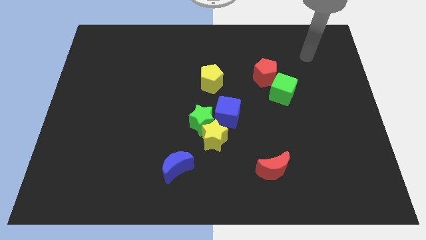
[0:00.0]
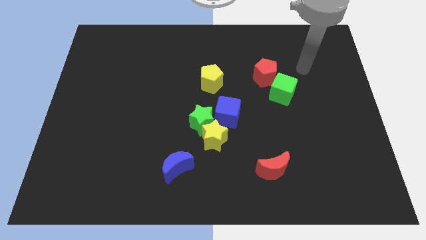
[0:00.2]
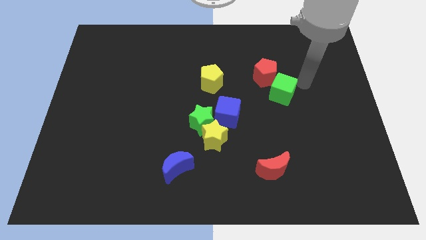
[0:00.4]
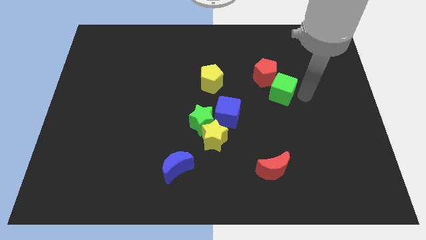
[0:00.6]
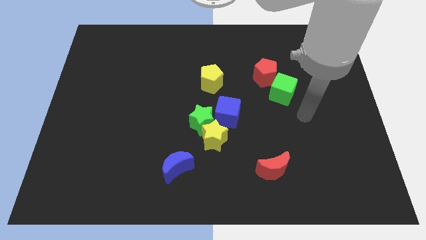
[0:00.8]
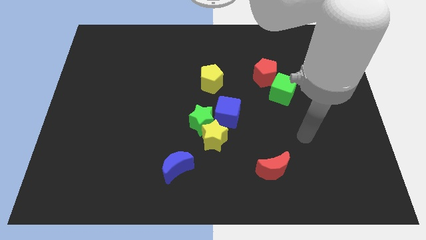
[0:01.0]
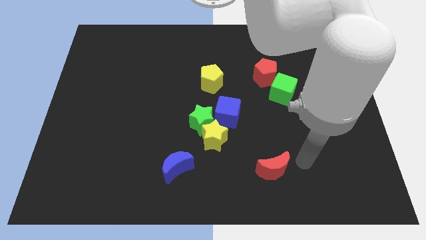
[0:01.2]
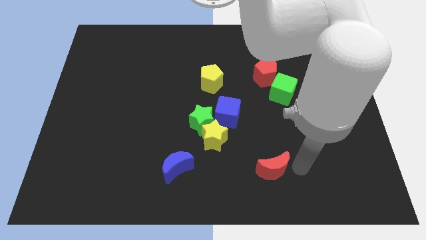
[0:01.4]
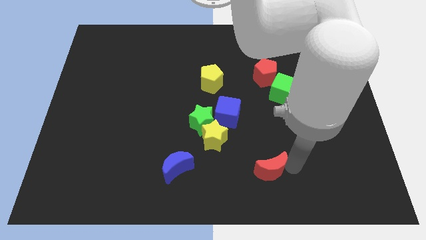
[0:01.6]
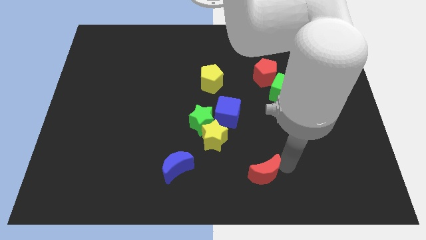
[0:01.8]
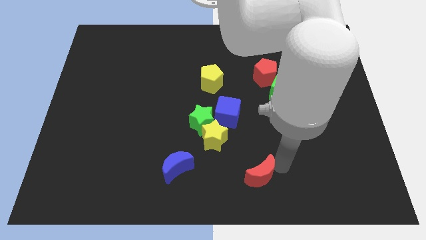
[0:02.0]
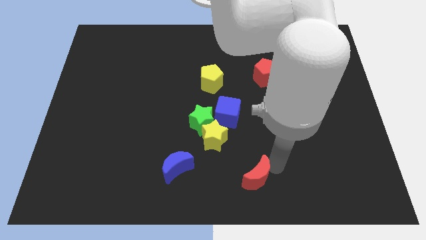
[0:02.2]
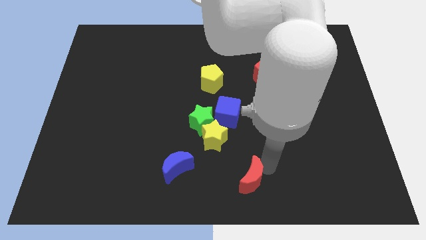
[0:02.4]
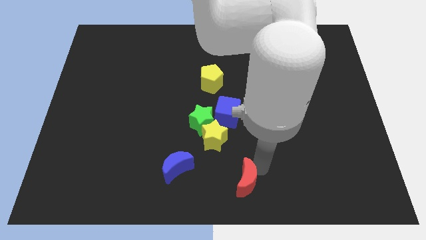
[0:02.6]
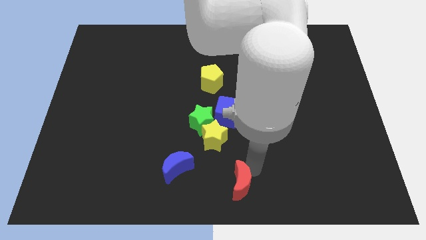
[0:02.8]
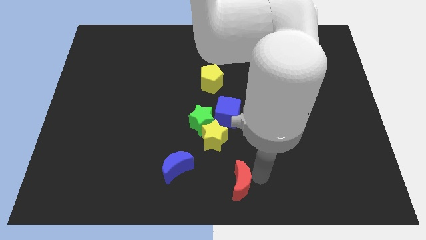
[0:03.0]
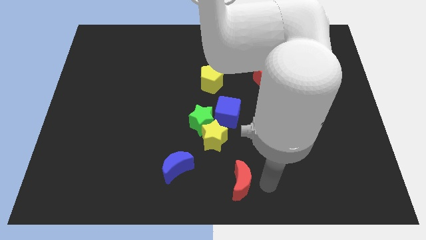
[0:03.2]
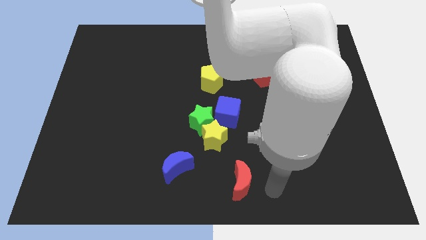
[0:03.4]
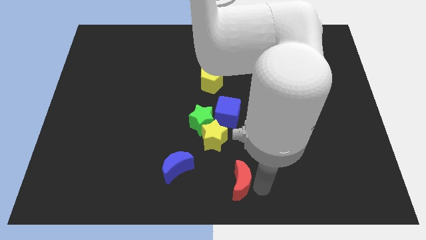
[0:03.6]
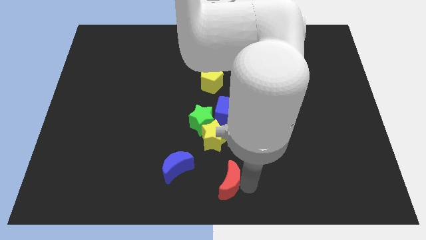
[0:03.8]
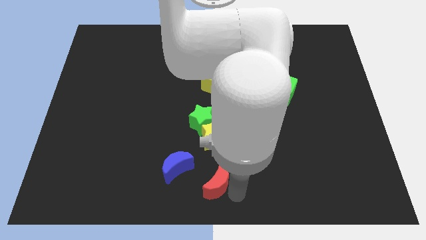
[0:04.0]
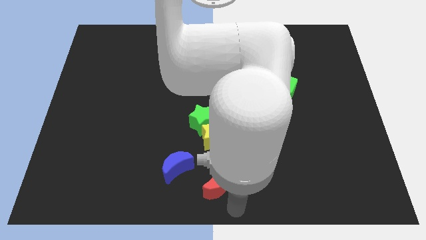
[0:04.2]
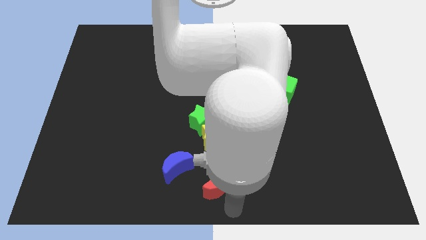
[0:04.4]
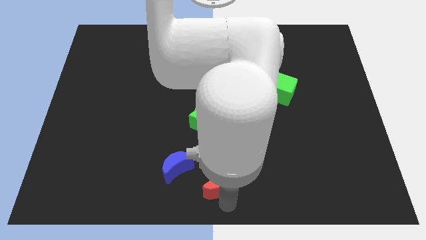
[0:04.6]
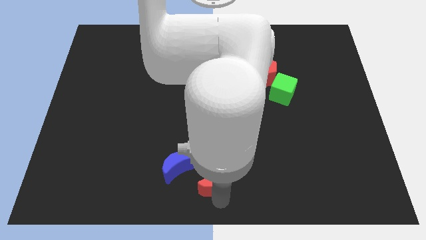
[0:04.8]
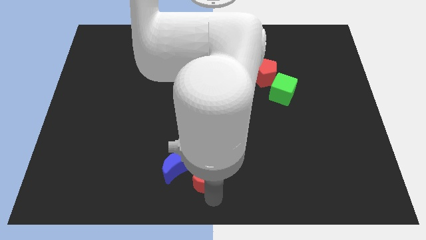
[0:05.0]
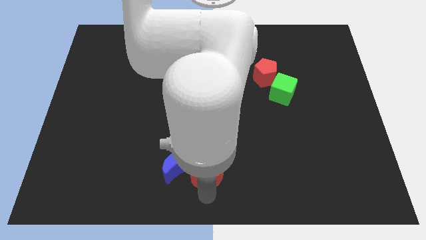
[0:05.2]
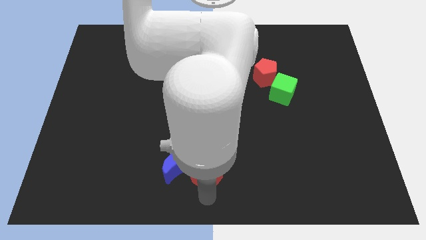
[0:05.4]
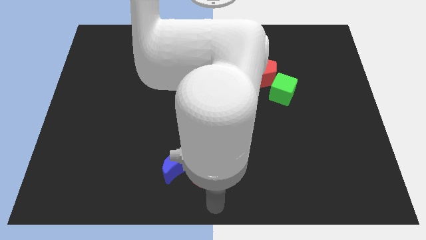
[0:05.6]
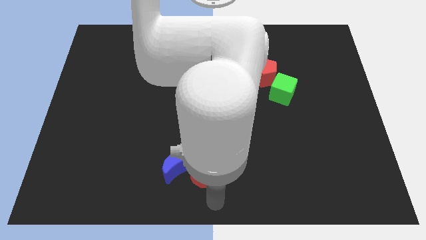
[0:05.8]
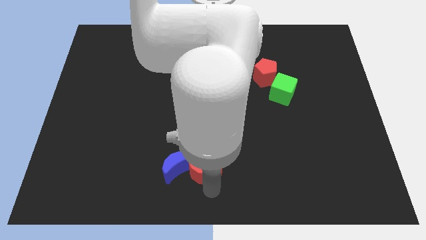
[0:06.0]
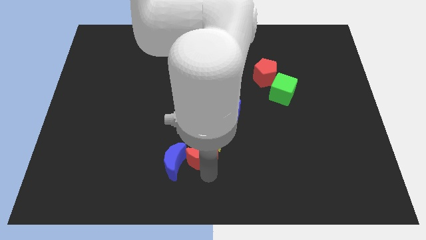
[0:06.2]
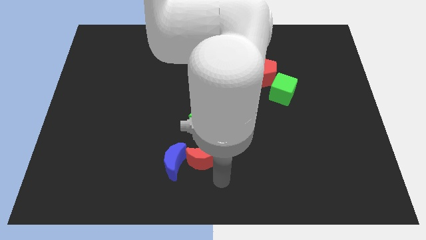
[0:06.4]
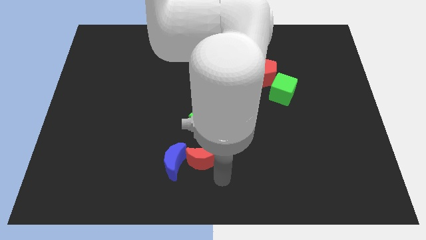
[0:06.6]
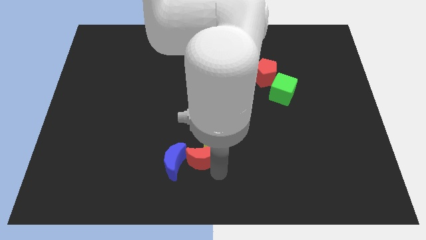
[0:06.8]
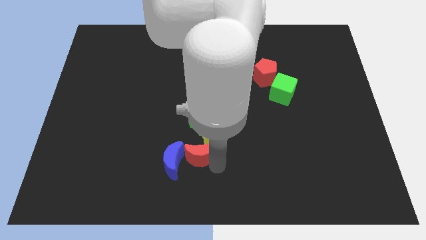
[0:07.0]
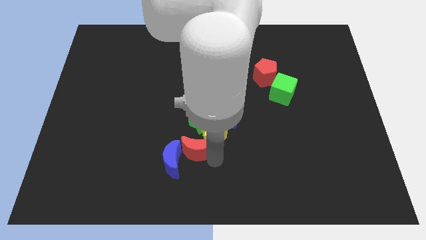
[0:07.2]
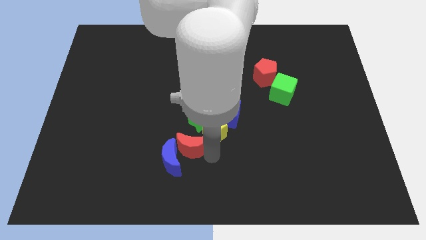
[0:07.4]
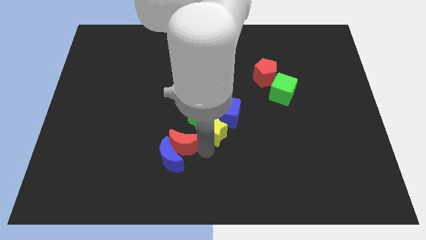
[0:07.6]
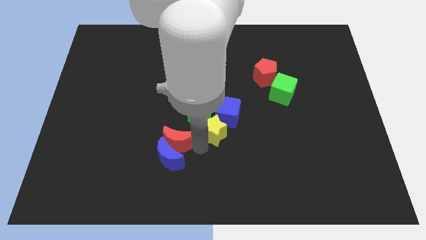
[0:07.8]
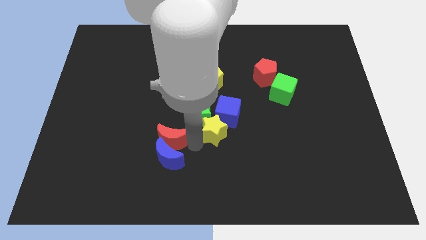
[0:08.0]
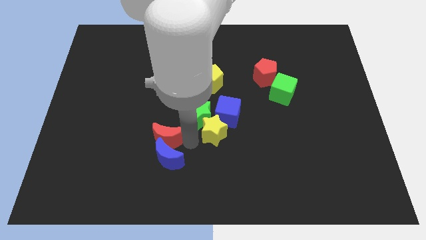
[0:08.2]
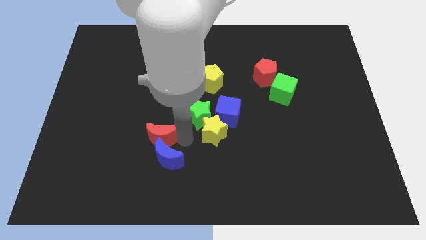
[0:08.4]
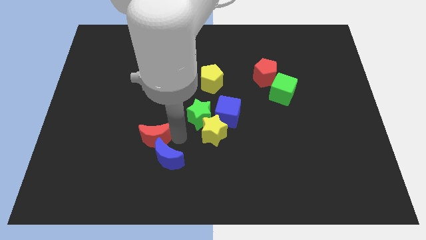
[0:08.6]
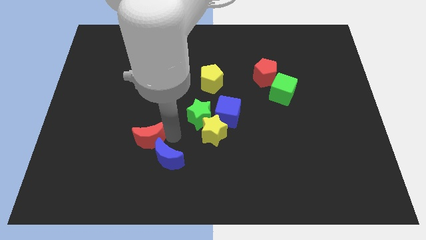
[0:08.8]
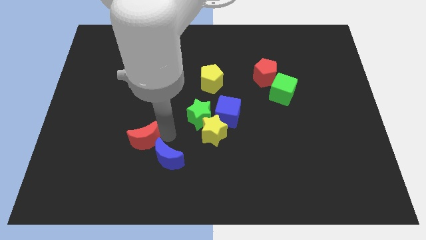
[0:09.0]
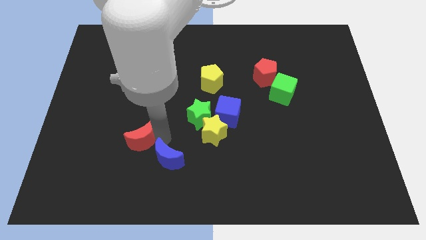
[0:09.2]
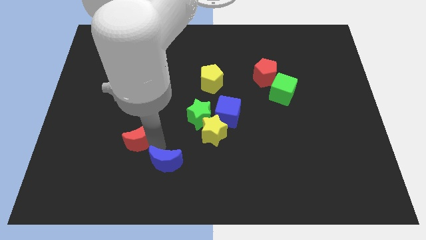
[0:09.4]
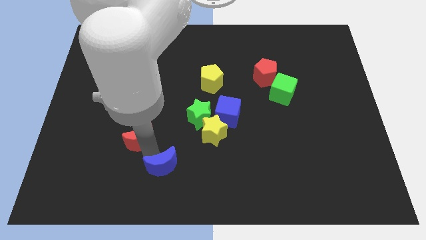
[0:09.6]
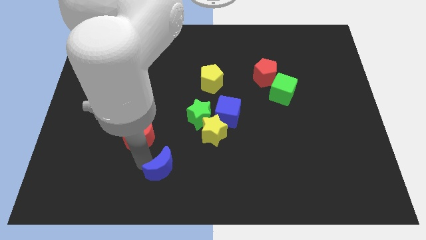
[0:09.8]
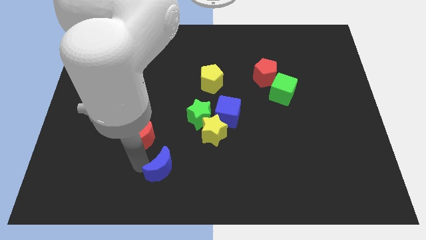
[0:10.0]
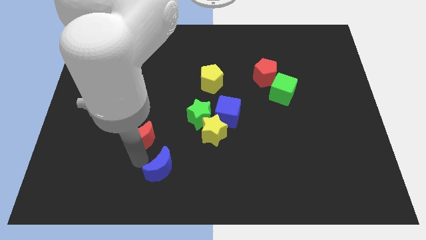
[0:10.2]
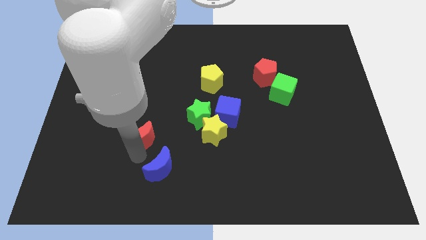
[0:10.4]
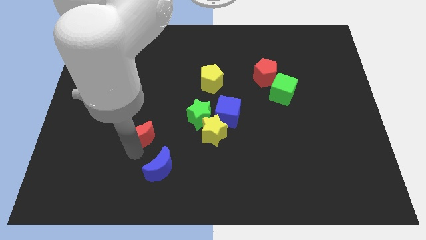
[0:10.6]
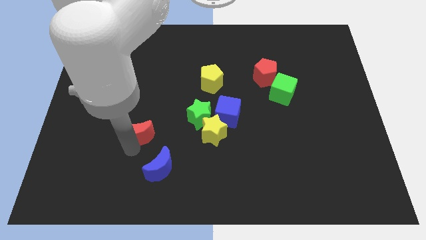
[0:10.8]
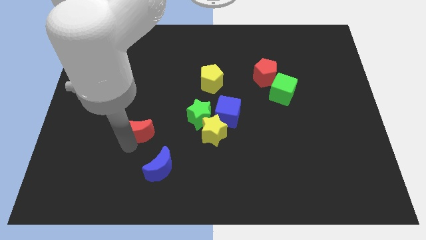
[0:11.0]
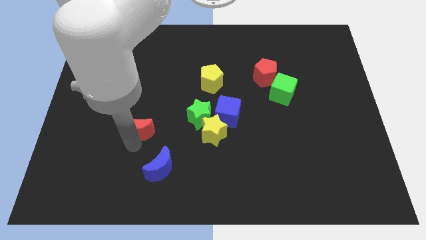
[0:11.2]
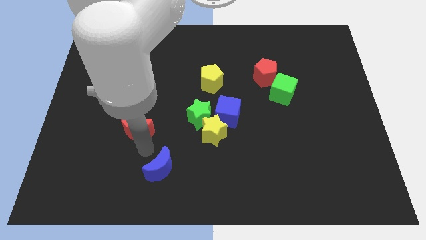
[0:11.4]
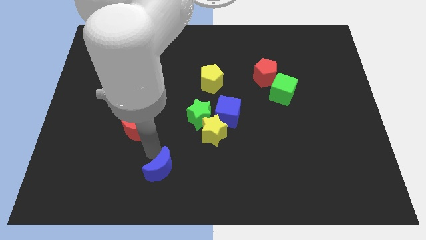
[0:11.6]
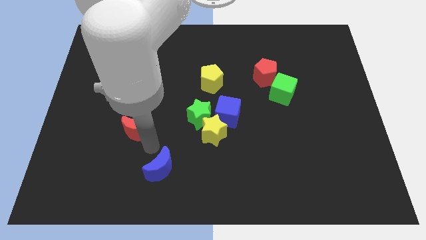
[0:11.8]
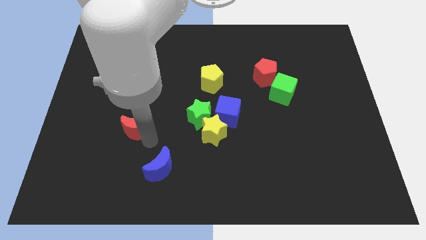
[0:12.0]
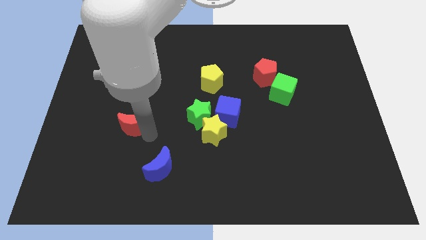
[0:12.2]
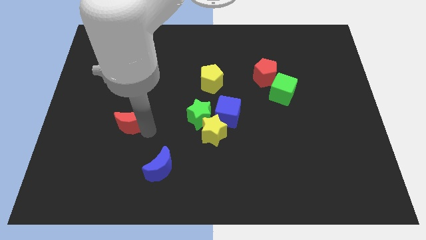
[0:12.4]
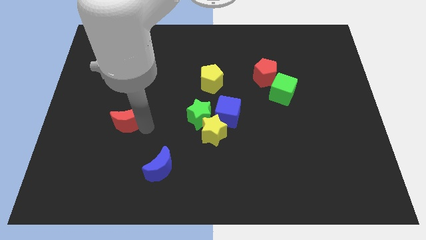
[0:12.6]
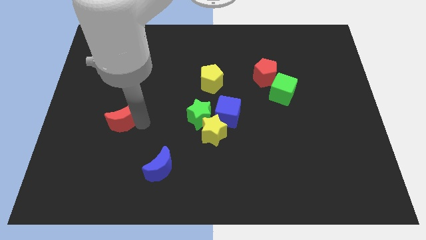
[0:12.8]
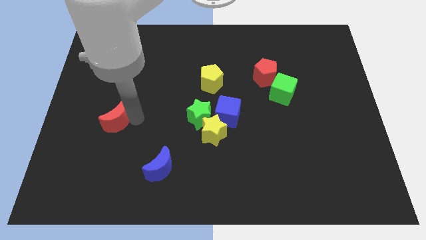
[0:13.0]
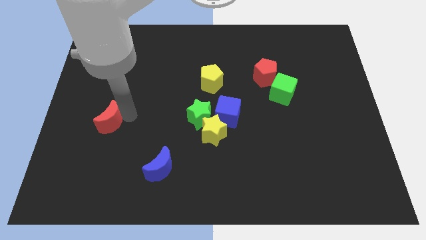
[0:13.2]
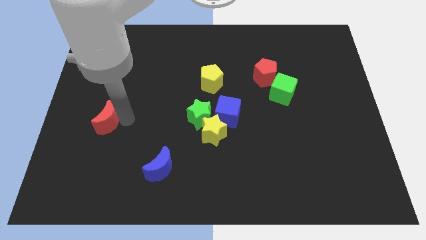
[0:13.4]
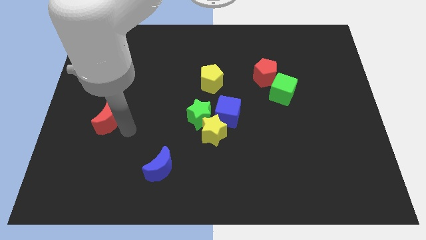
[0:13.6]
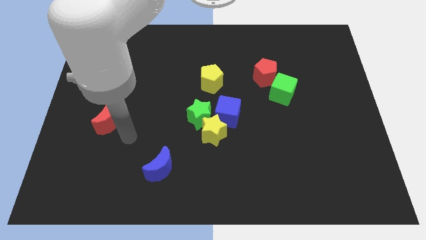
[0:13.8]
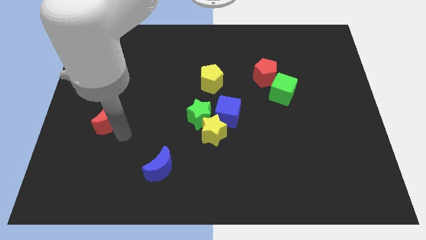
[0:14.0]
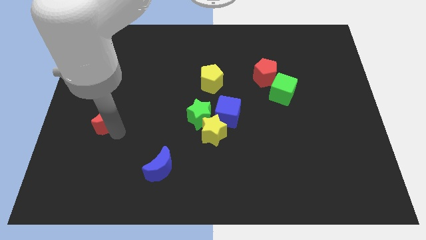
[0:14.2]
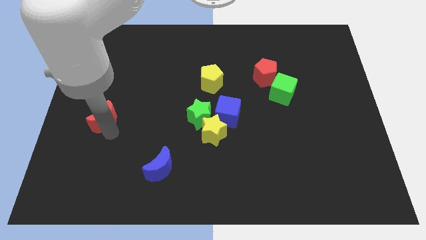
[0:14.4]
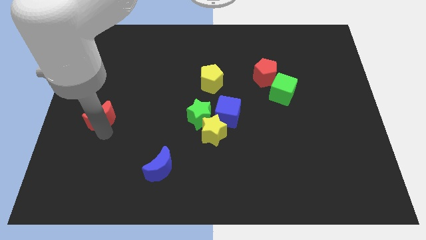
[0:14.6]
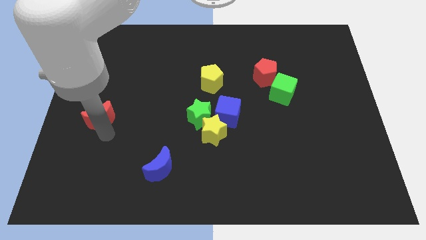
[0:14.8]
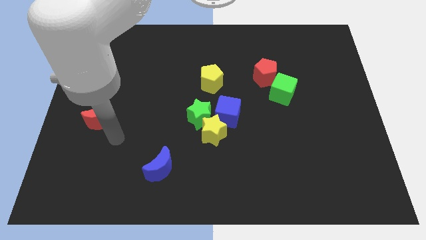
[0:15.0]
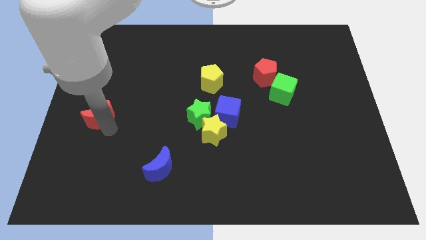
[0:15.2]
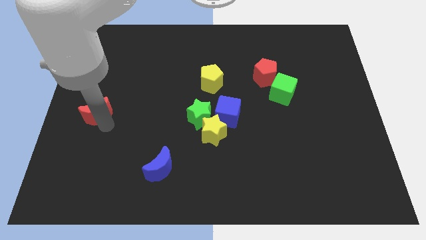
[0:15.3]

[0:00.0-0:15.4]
move the red moon to the left side
